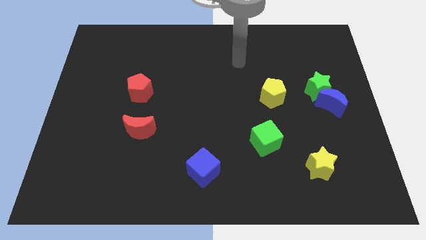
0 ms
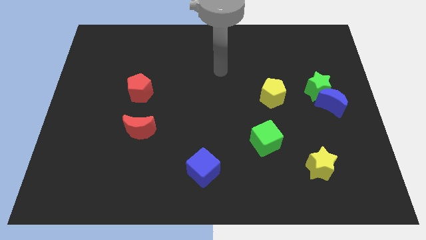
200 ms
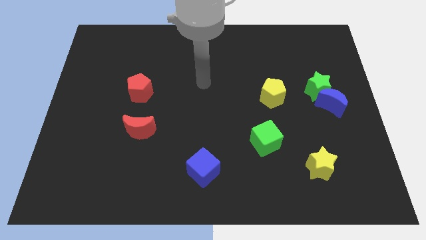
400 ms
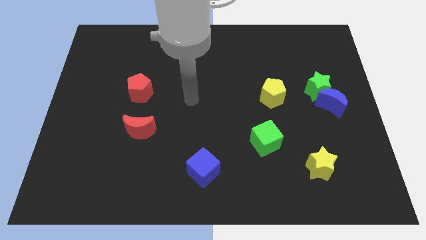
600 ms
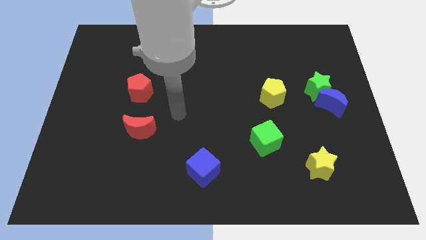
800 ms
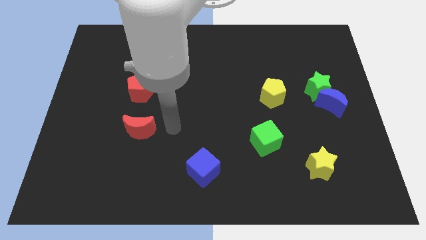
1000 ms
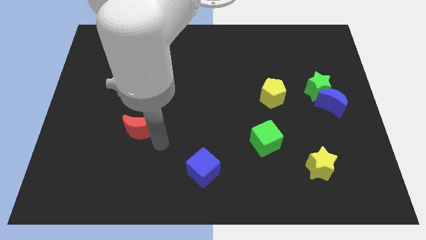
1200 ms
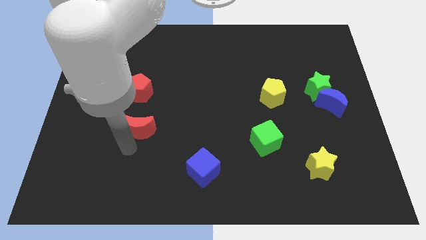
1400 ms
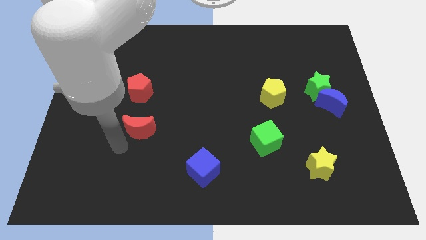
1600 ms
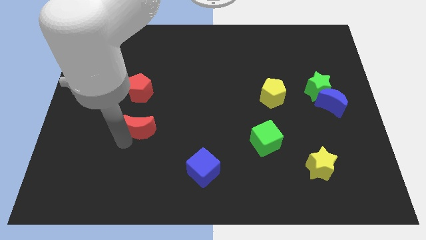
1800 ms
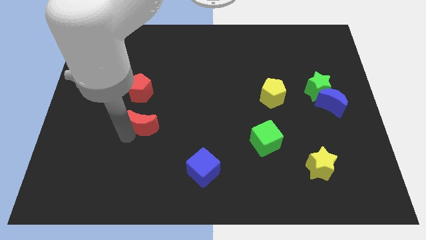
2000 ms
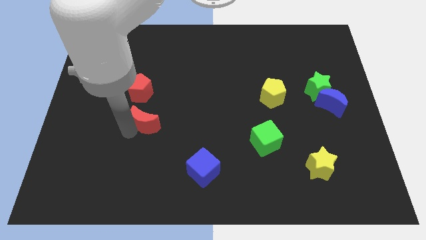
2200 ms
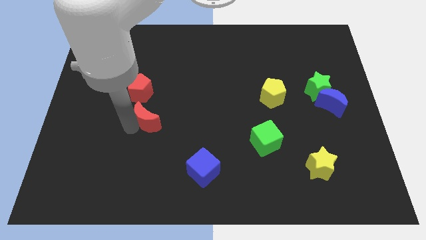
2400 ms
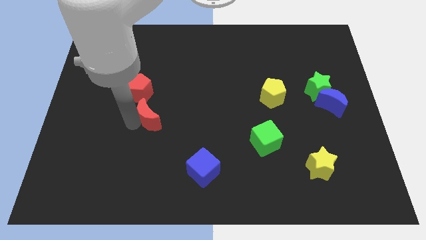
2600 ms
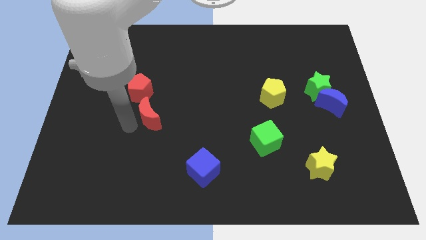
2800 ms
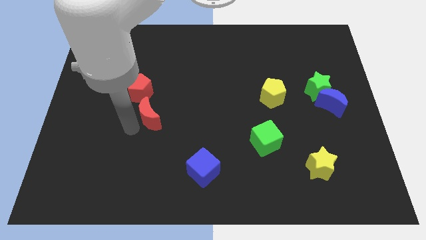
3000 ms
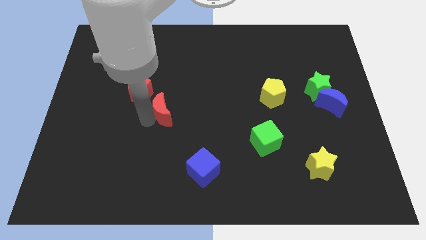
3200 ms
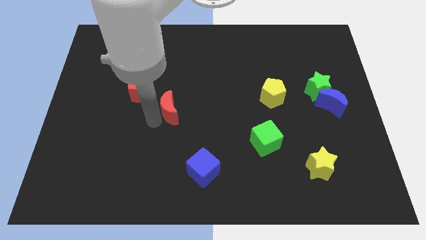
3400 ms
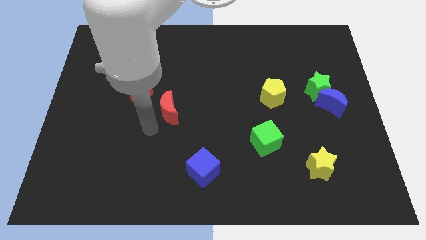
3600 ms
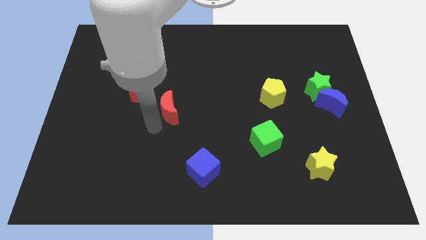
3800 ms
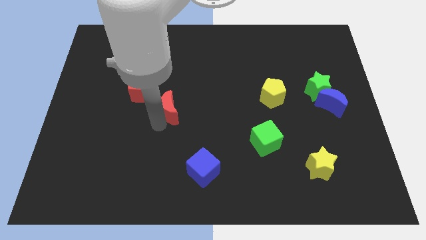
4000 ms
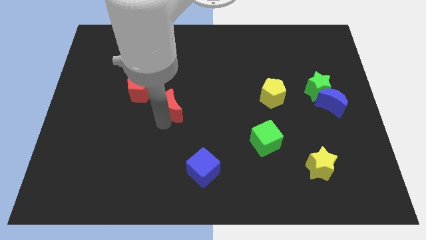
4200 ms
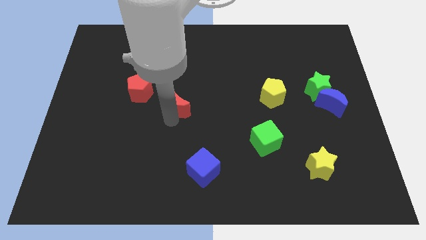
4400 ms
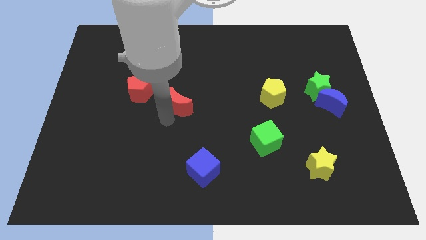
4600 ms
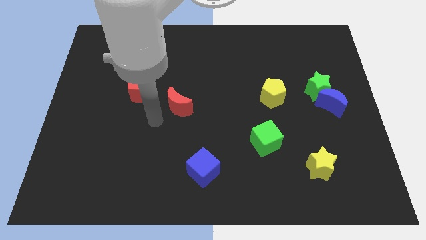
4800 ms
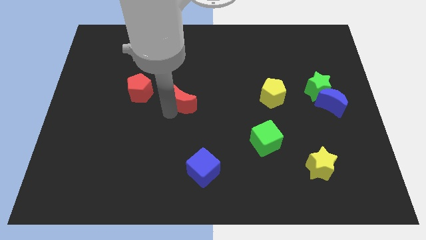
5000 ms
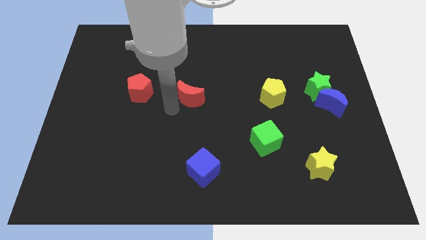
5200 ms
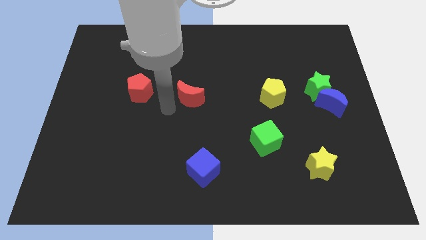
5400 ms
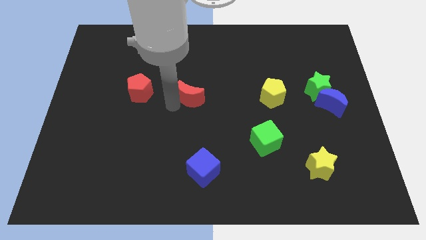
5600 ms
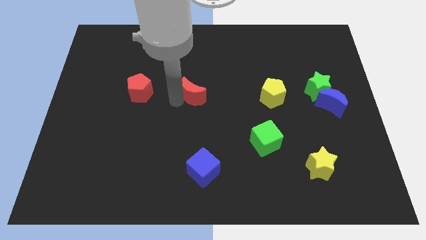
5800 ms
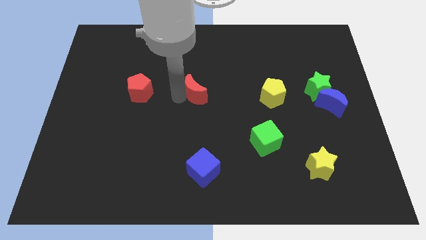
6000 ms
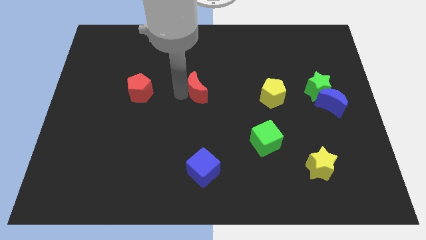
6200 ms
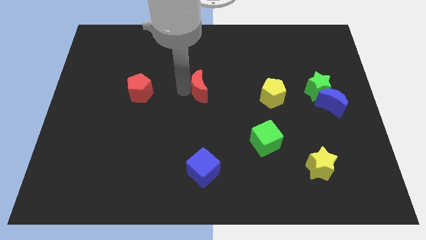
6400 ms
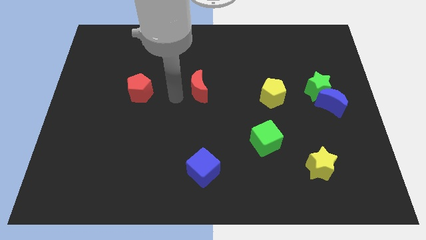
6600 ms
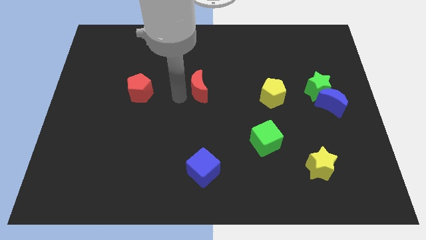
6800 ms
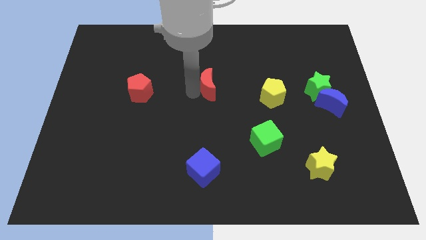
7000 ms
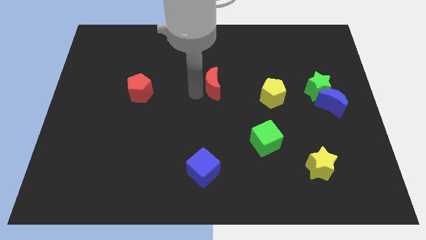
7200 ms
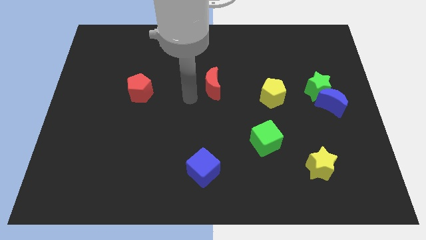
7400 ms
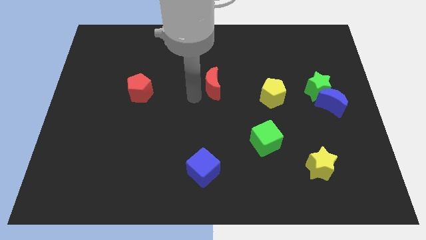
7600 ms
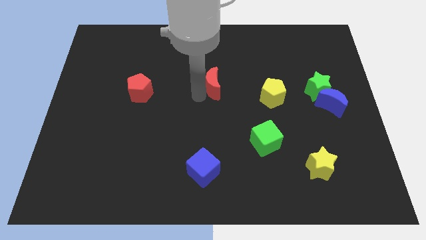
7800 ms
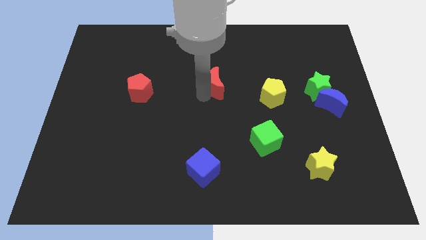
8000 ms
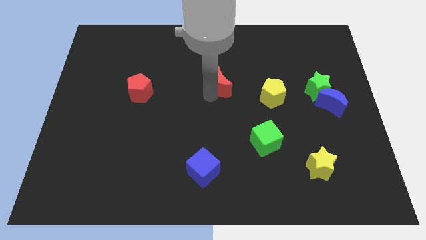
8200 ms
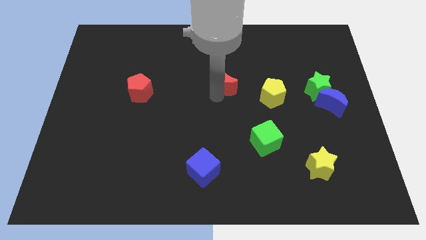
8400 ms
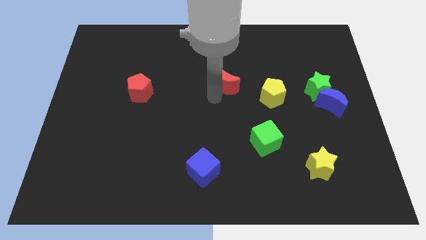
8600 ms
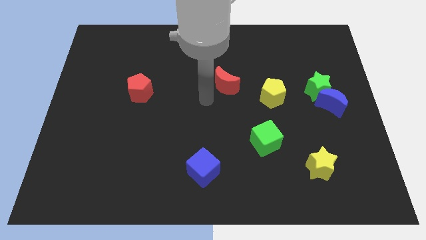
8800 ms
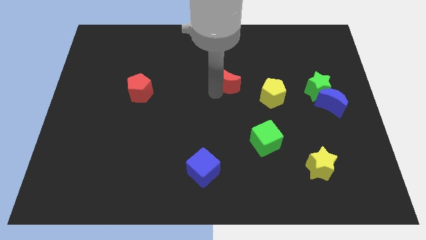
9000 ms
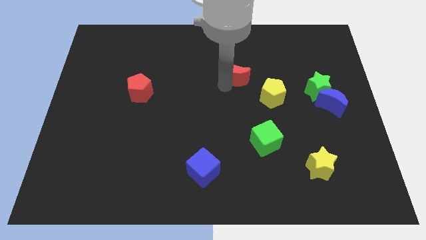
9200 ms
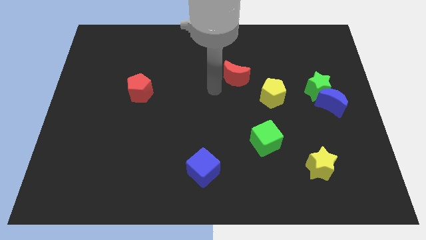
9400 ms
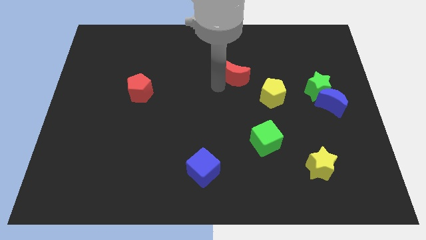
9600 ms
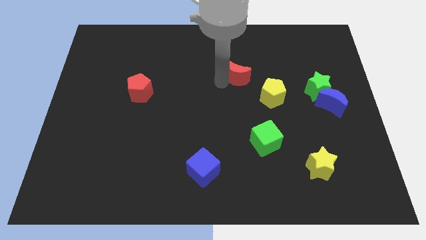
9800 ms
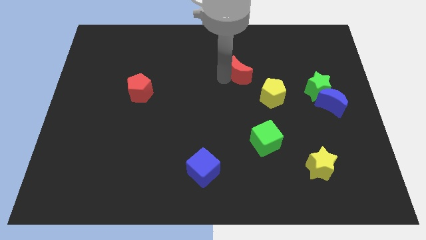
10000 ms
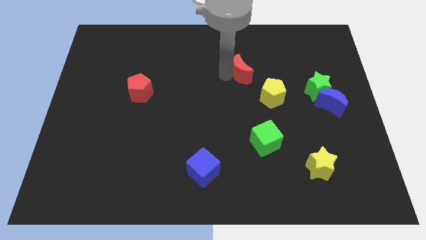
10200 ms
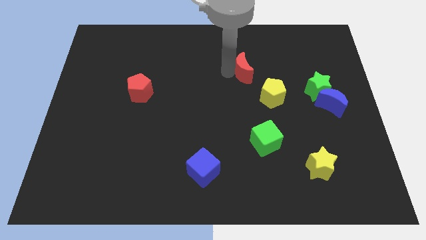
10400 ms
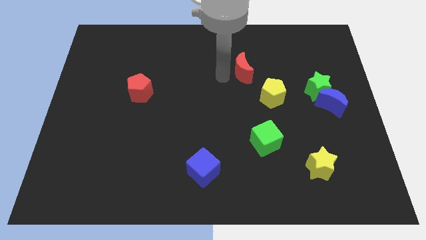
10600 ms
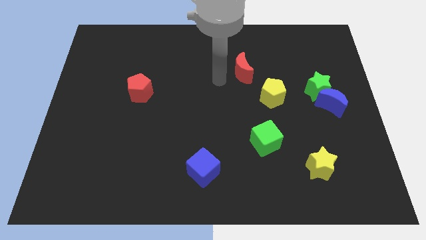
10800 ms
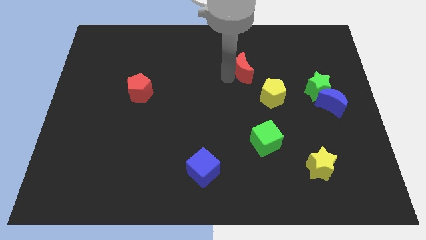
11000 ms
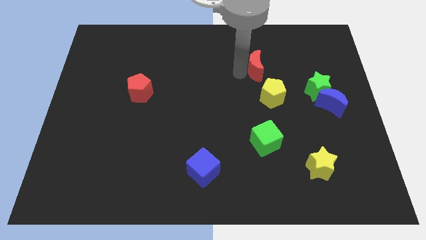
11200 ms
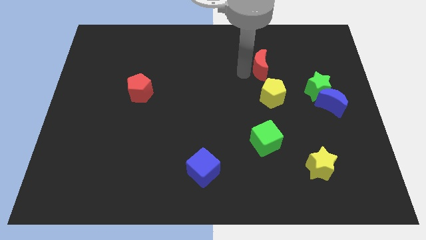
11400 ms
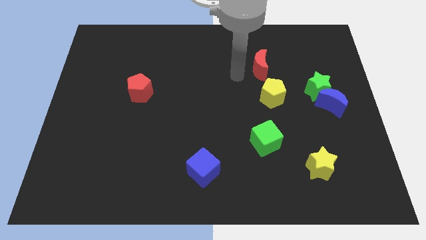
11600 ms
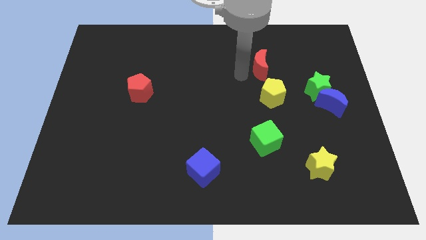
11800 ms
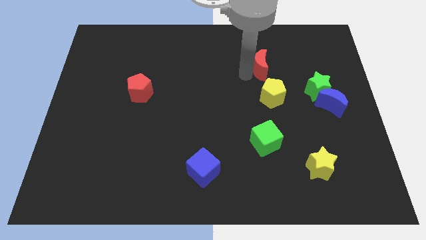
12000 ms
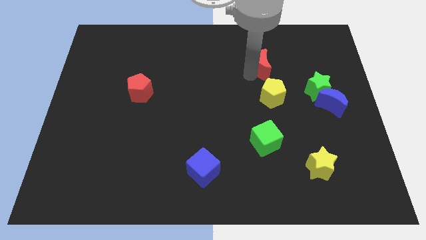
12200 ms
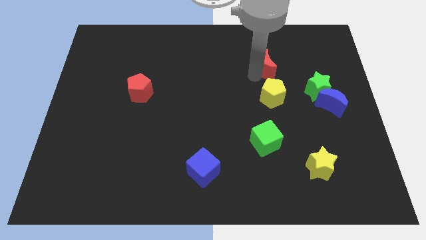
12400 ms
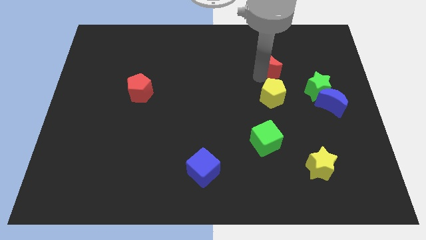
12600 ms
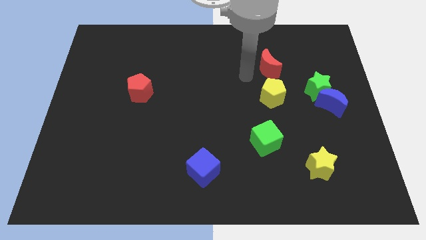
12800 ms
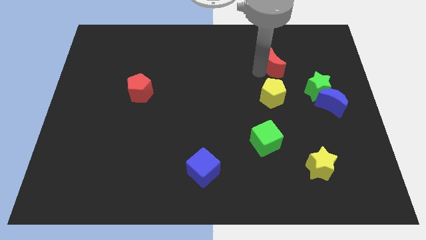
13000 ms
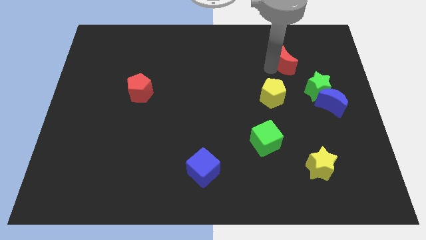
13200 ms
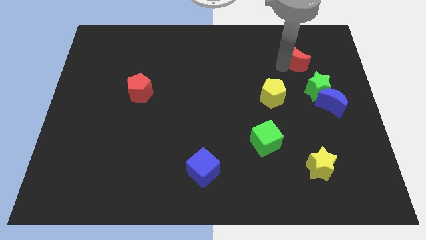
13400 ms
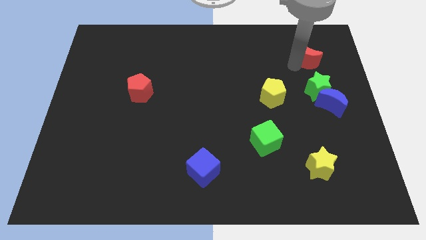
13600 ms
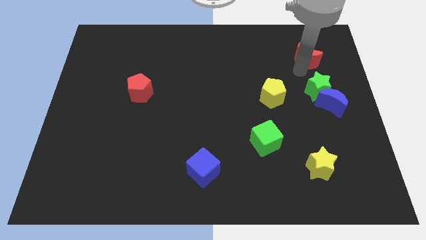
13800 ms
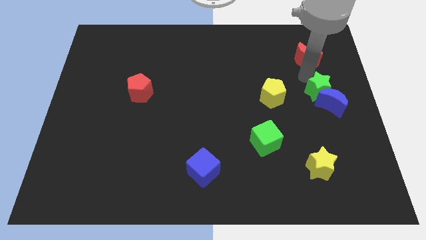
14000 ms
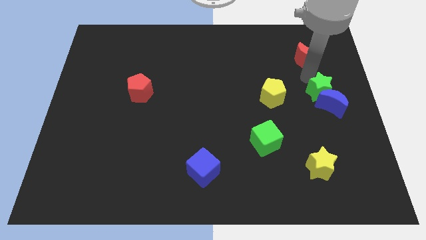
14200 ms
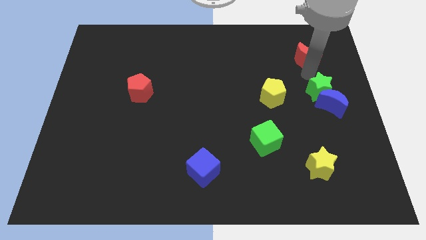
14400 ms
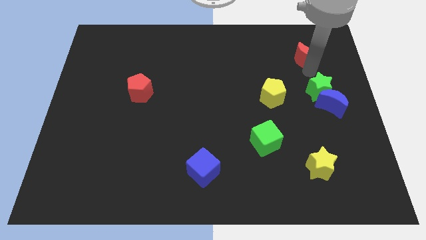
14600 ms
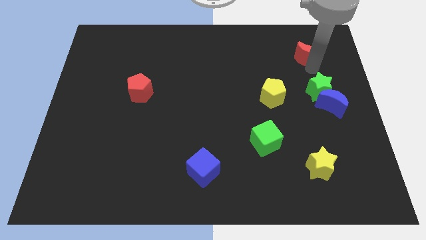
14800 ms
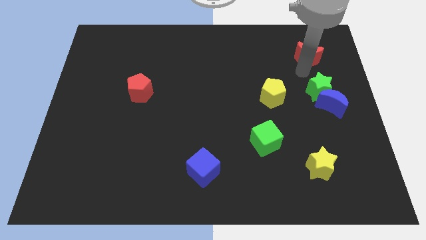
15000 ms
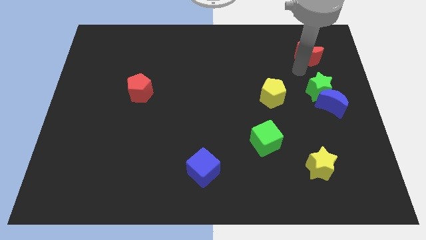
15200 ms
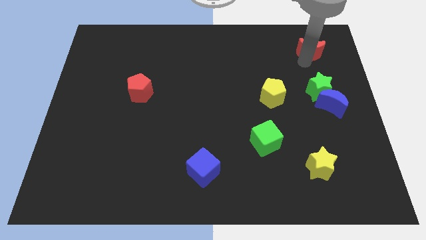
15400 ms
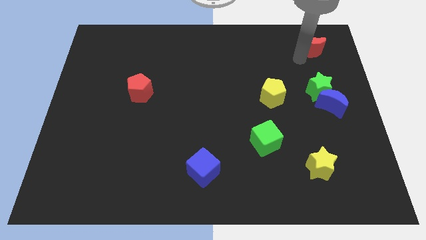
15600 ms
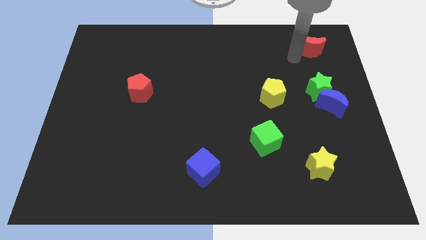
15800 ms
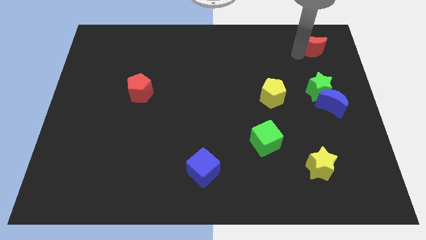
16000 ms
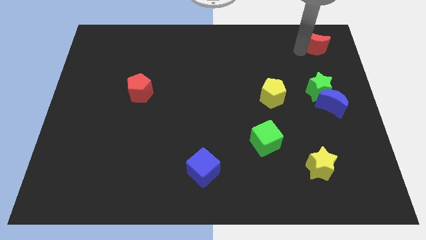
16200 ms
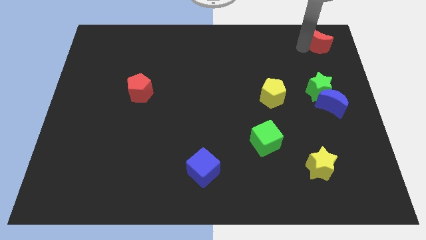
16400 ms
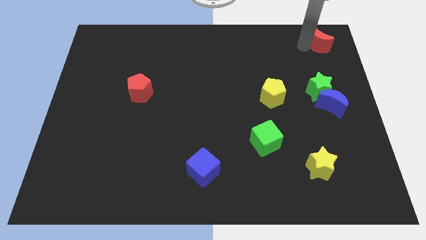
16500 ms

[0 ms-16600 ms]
slide the red moon to the upper right corner
